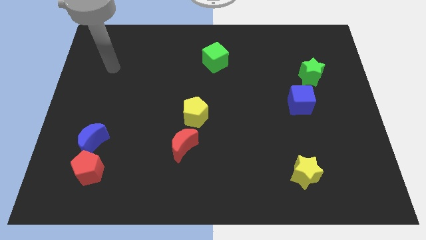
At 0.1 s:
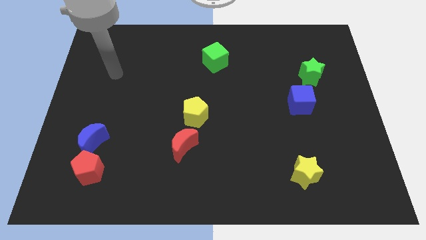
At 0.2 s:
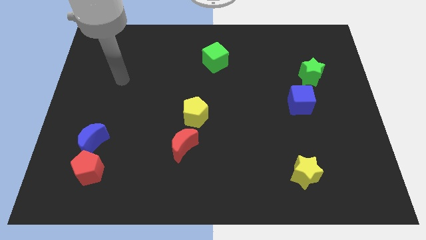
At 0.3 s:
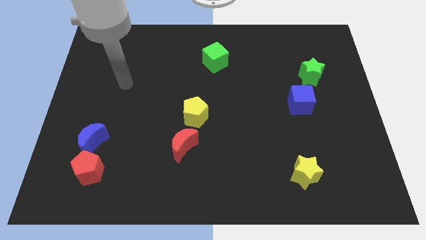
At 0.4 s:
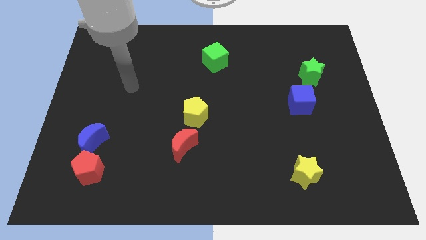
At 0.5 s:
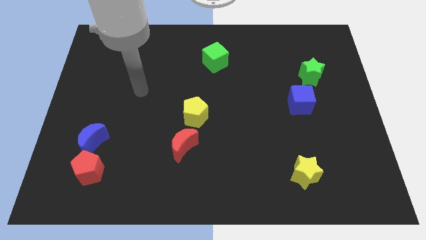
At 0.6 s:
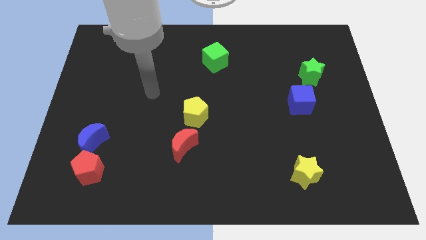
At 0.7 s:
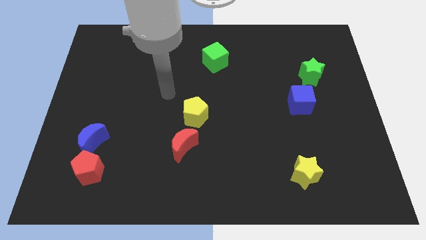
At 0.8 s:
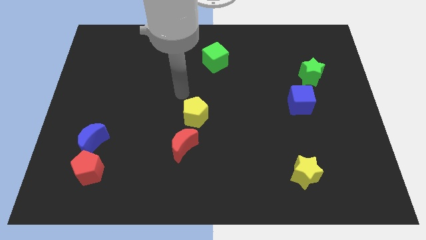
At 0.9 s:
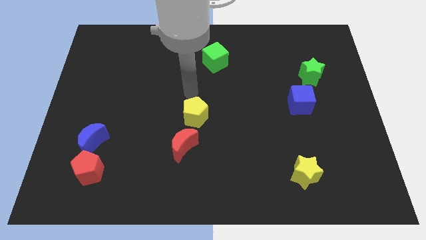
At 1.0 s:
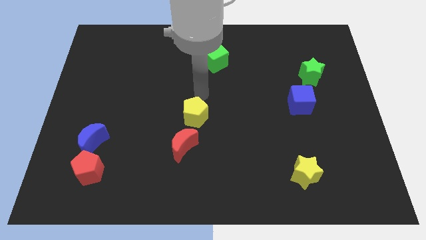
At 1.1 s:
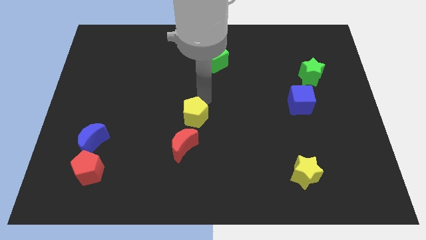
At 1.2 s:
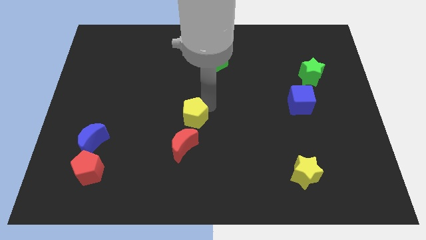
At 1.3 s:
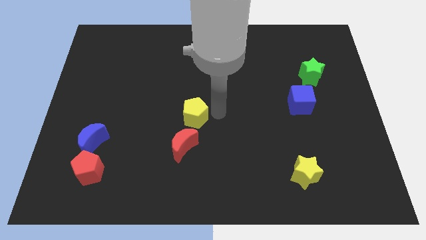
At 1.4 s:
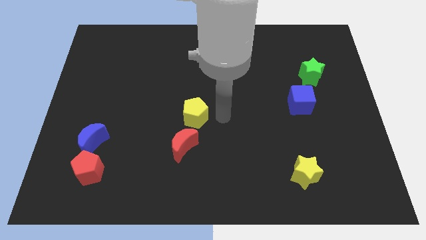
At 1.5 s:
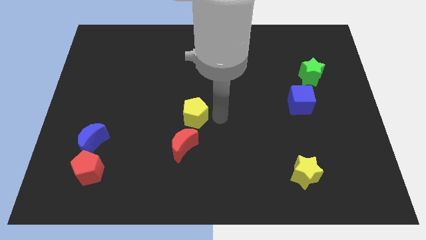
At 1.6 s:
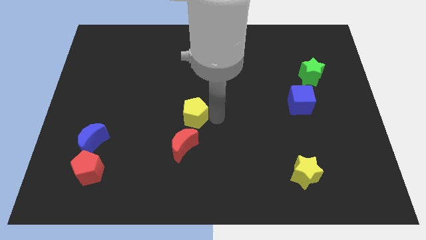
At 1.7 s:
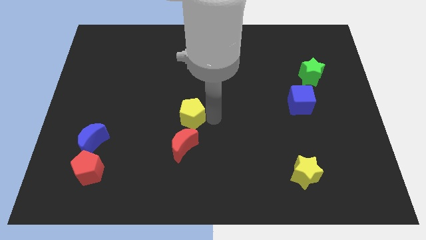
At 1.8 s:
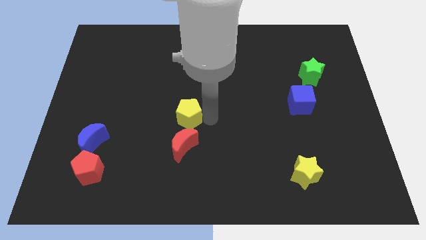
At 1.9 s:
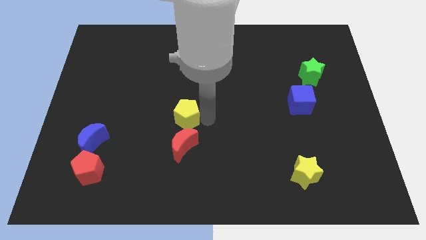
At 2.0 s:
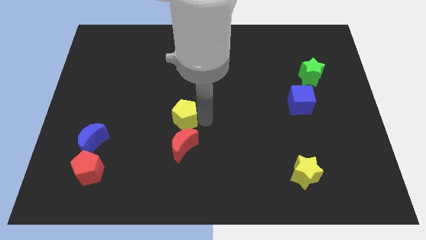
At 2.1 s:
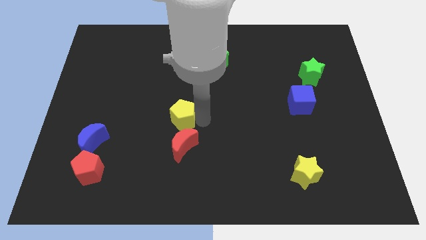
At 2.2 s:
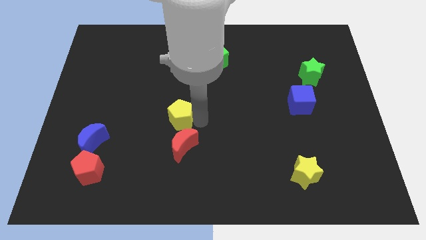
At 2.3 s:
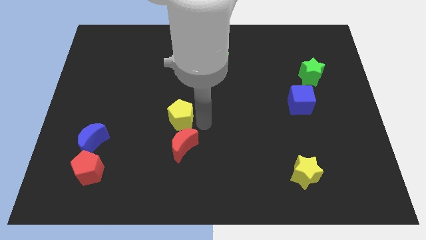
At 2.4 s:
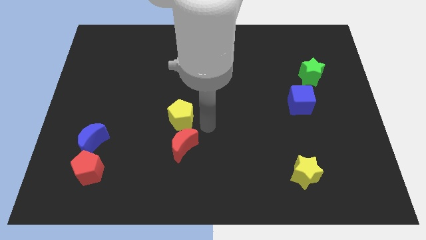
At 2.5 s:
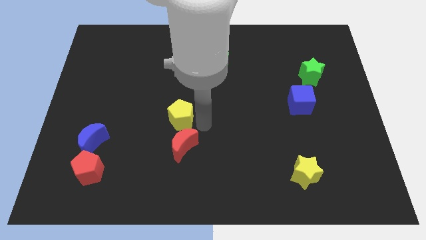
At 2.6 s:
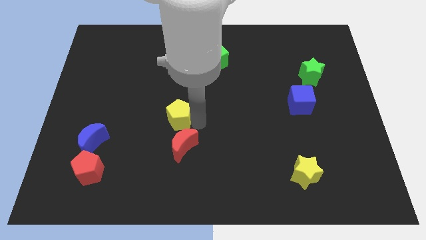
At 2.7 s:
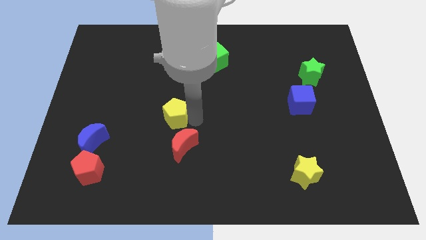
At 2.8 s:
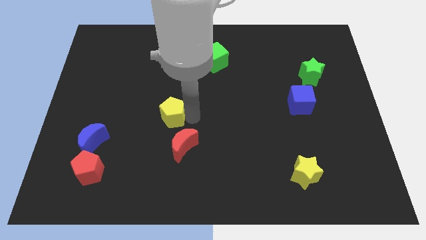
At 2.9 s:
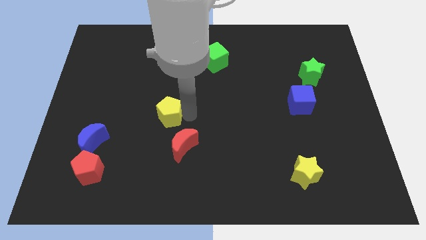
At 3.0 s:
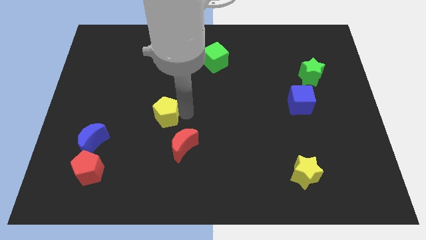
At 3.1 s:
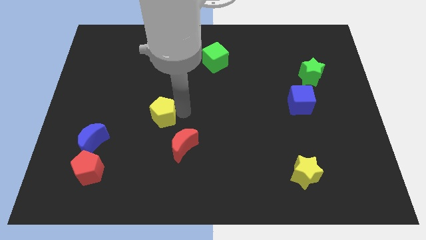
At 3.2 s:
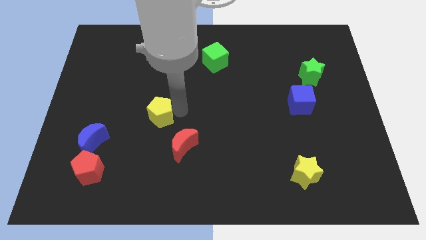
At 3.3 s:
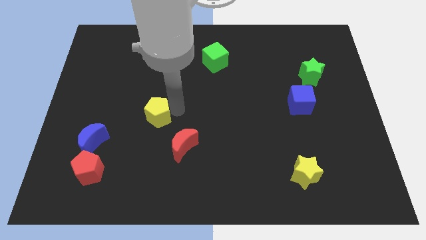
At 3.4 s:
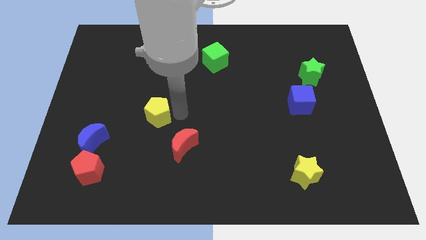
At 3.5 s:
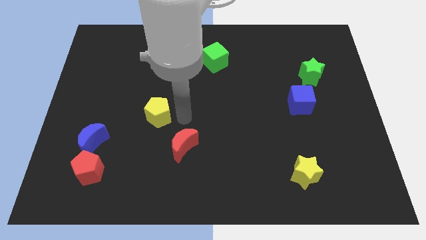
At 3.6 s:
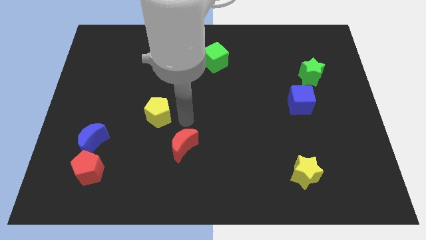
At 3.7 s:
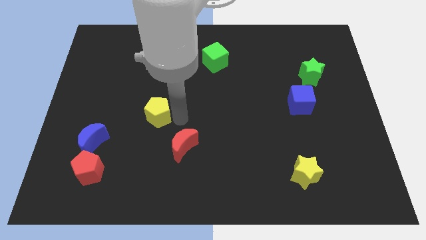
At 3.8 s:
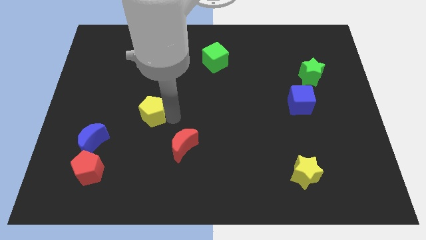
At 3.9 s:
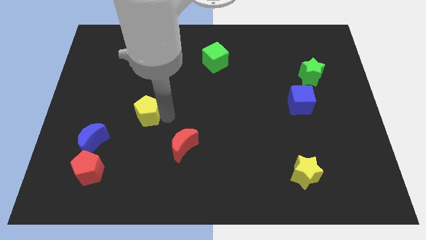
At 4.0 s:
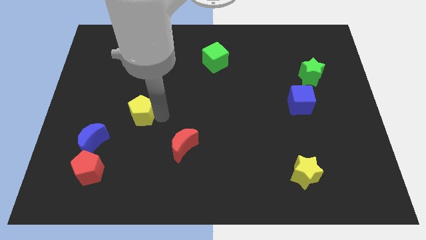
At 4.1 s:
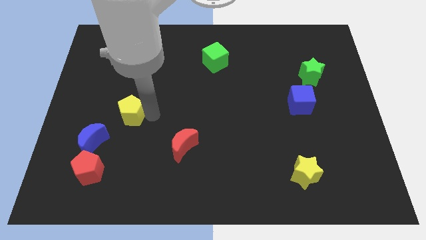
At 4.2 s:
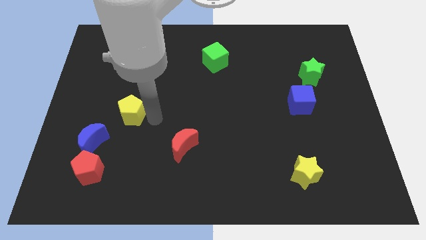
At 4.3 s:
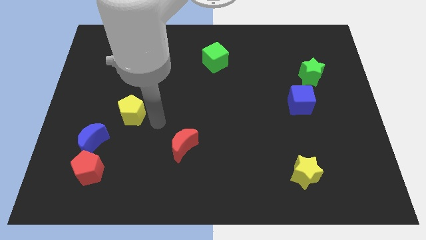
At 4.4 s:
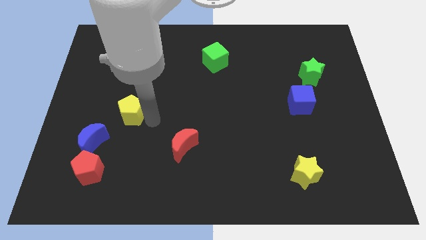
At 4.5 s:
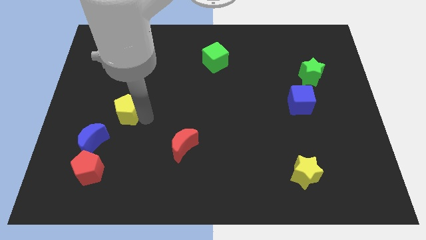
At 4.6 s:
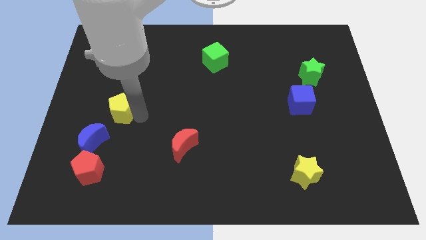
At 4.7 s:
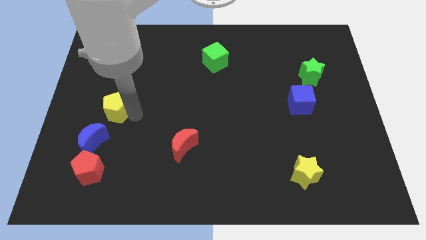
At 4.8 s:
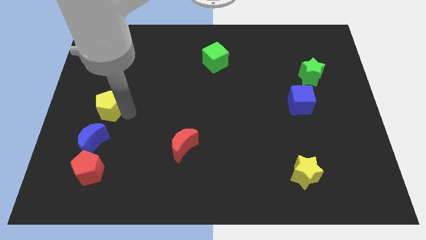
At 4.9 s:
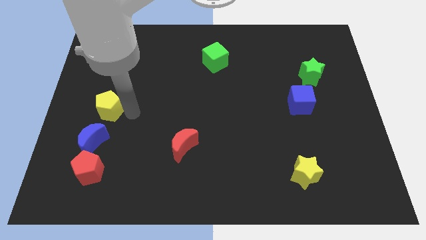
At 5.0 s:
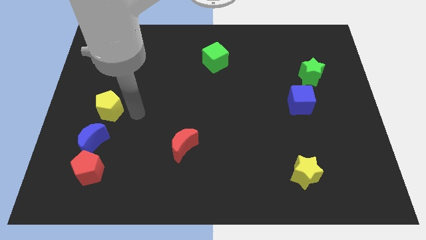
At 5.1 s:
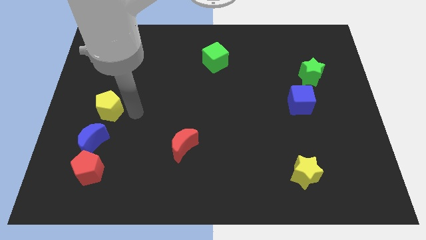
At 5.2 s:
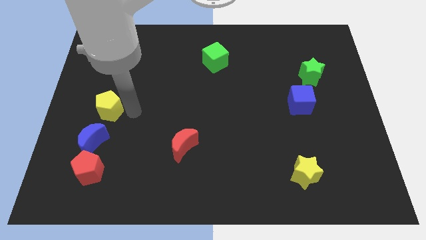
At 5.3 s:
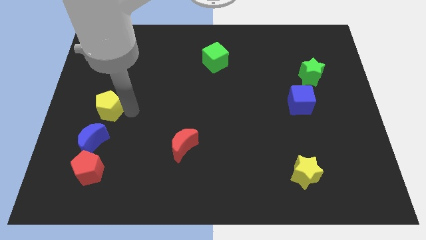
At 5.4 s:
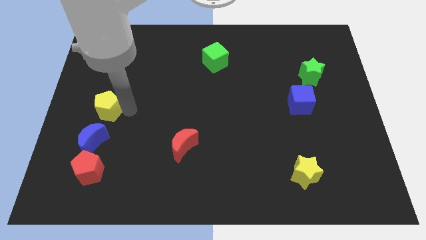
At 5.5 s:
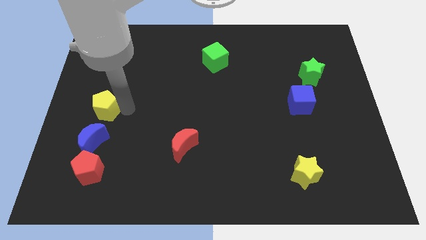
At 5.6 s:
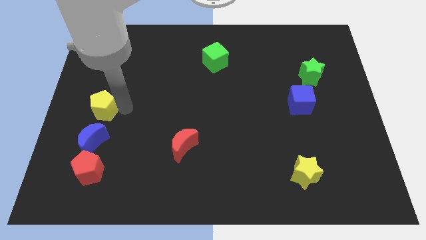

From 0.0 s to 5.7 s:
put the yellow pentagon to the left side of the board

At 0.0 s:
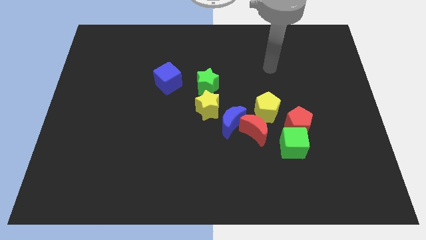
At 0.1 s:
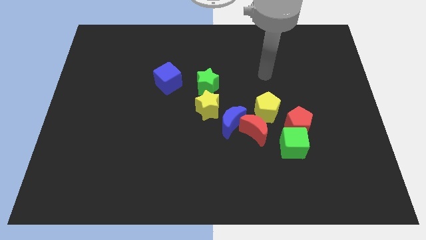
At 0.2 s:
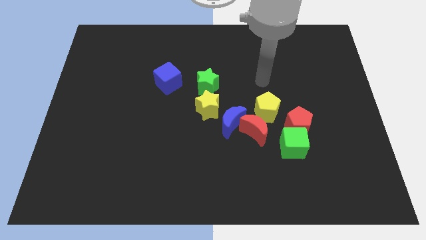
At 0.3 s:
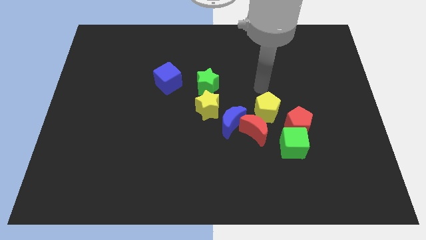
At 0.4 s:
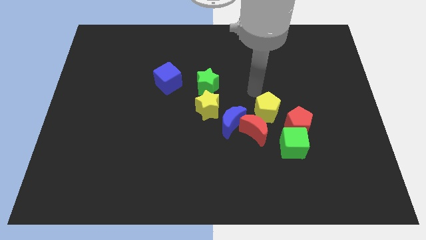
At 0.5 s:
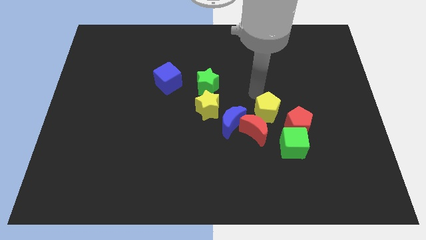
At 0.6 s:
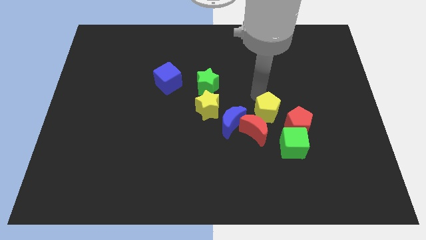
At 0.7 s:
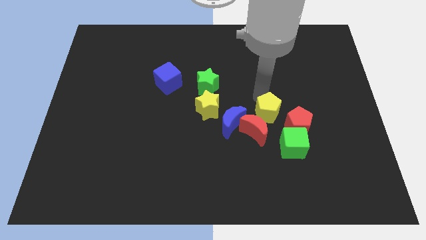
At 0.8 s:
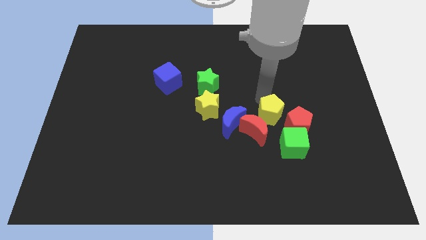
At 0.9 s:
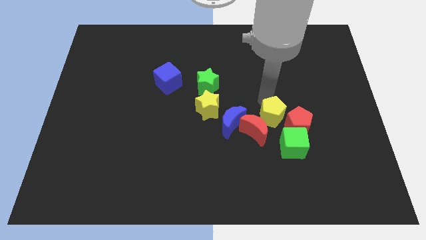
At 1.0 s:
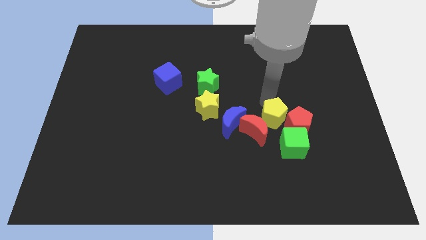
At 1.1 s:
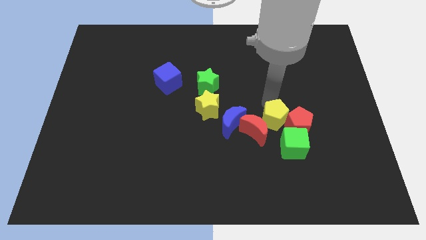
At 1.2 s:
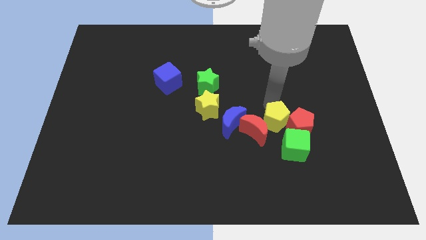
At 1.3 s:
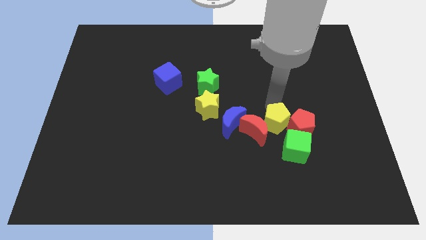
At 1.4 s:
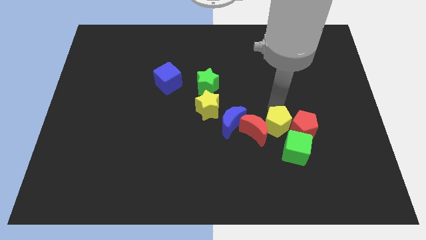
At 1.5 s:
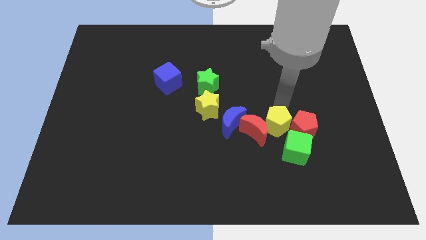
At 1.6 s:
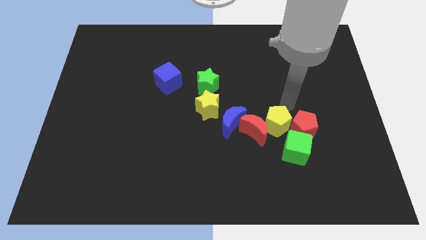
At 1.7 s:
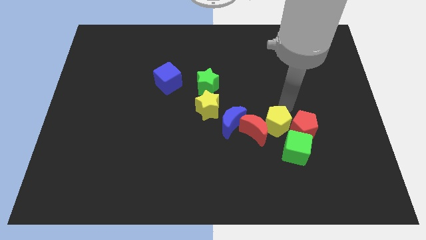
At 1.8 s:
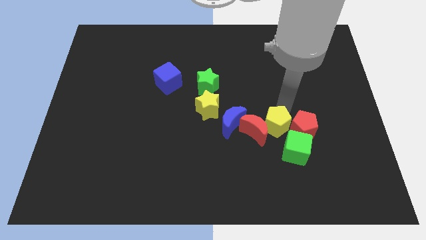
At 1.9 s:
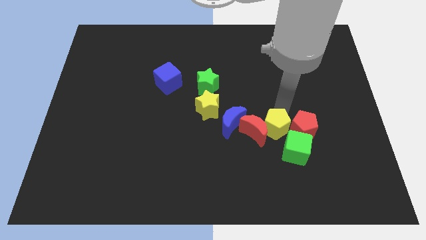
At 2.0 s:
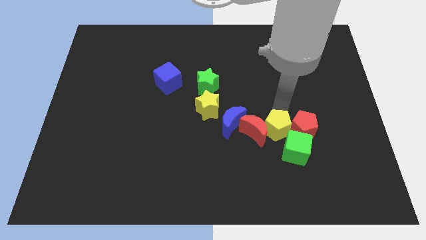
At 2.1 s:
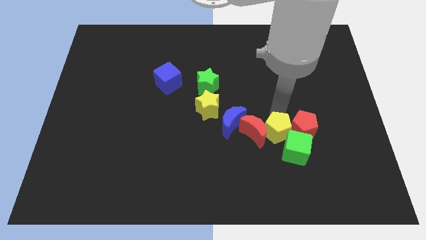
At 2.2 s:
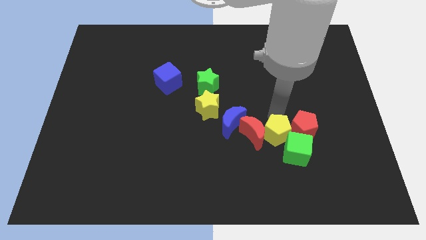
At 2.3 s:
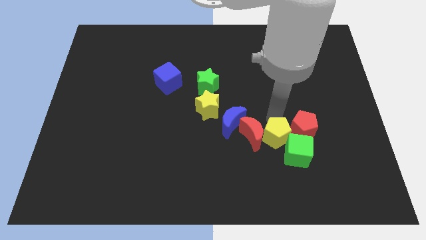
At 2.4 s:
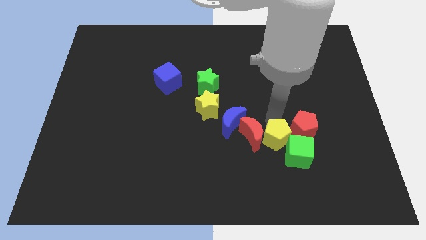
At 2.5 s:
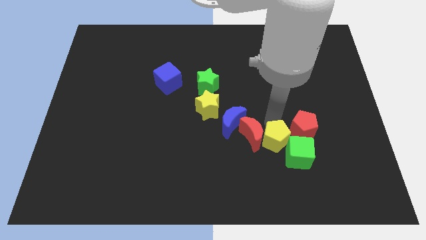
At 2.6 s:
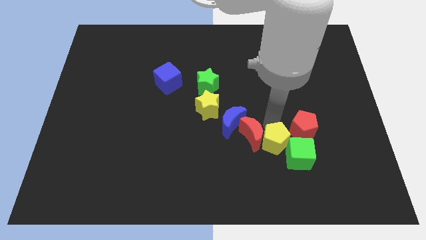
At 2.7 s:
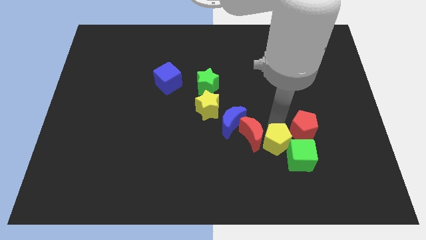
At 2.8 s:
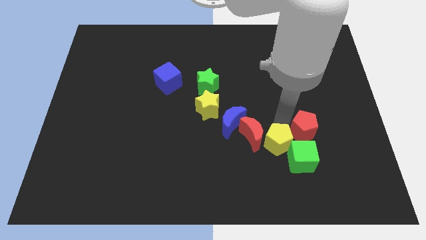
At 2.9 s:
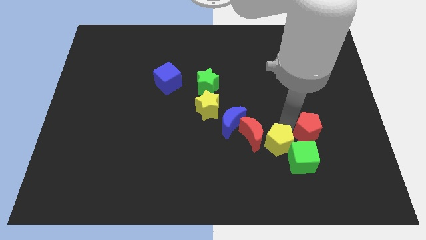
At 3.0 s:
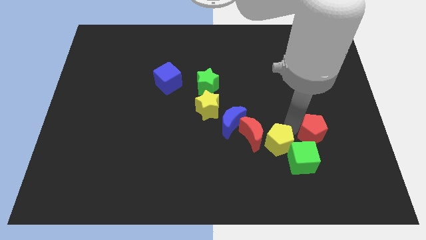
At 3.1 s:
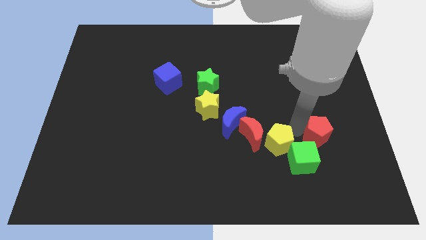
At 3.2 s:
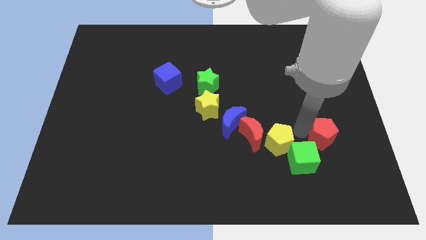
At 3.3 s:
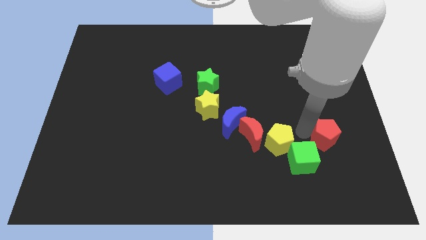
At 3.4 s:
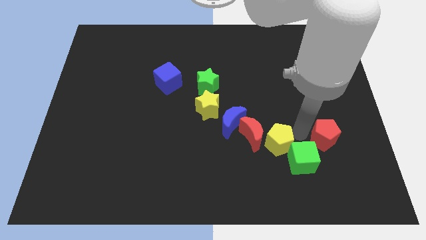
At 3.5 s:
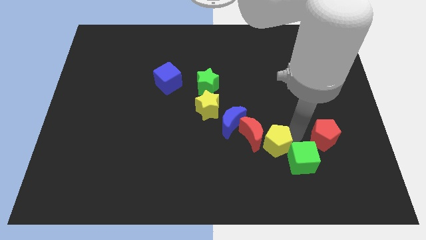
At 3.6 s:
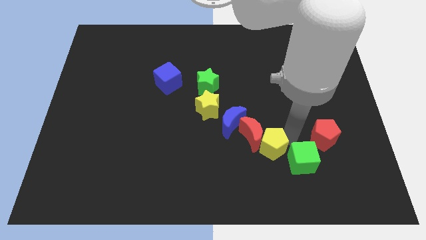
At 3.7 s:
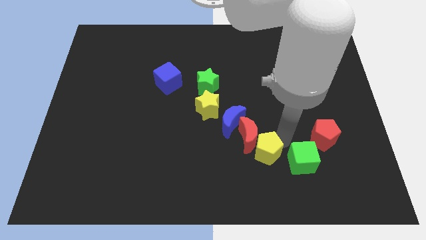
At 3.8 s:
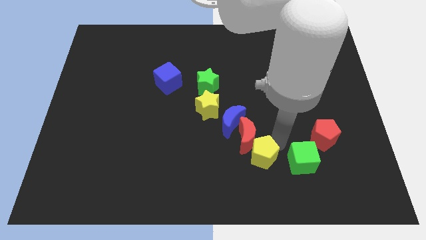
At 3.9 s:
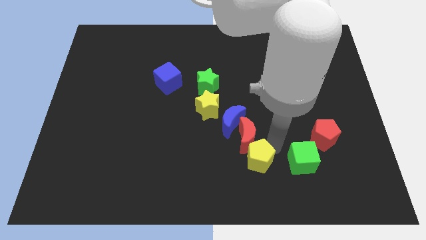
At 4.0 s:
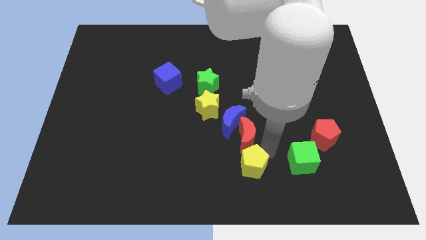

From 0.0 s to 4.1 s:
move the yellow pentagon to the bottom
